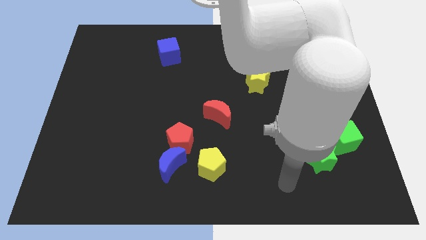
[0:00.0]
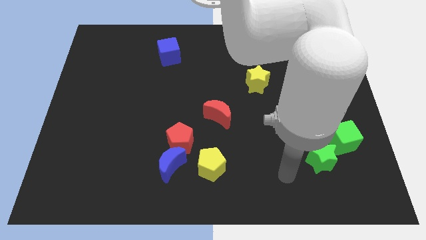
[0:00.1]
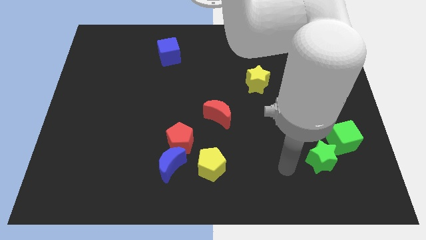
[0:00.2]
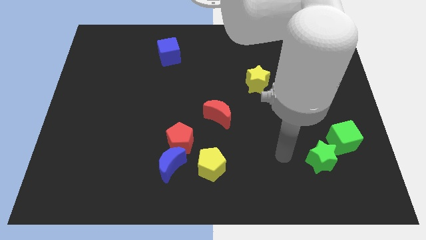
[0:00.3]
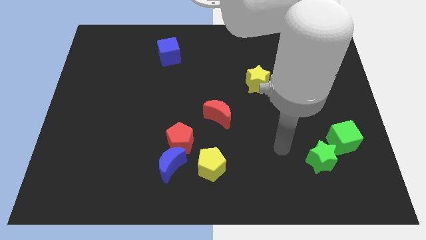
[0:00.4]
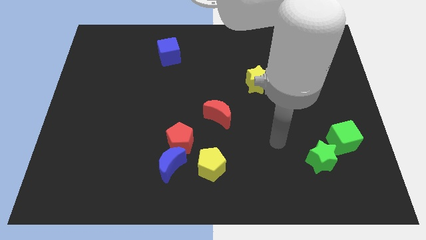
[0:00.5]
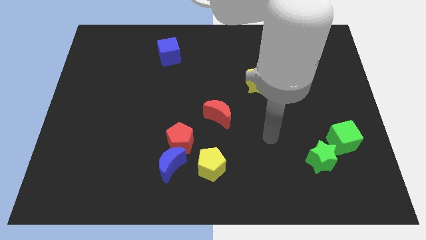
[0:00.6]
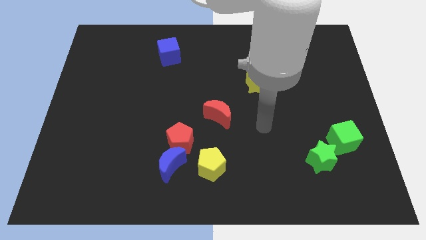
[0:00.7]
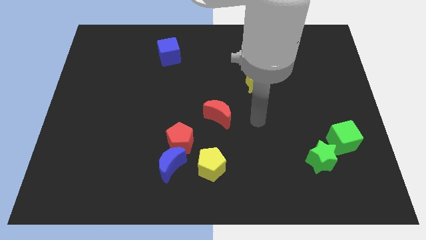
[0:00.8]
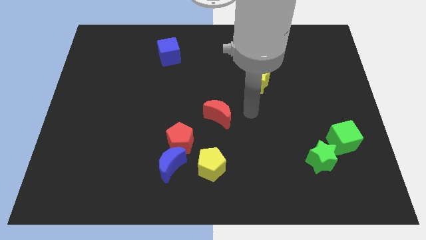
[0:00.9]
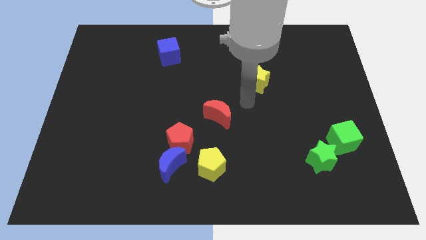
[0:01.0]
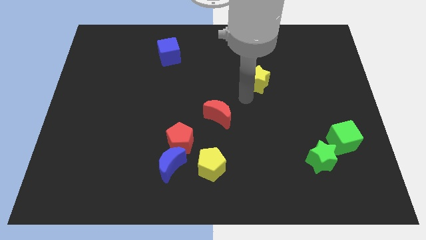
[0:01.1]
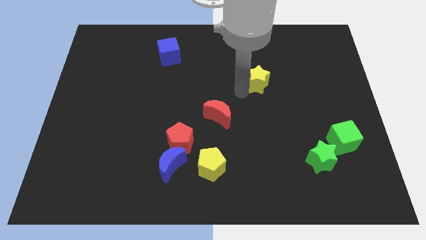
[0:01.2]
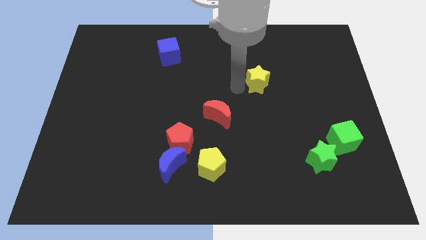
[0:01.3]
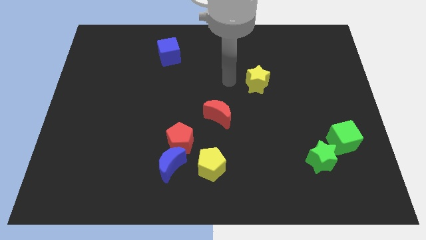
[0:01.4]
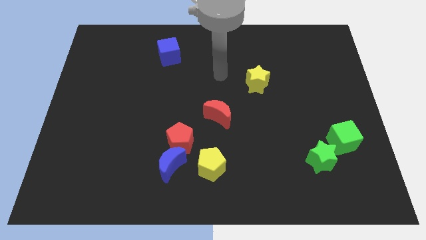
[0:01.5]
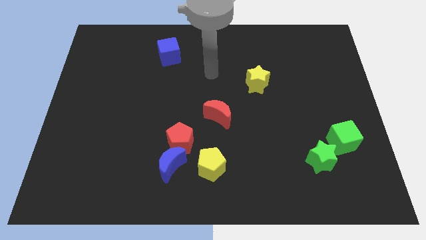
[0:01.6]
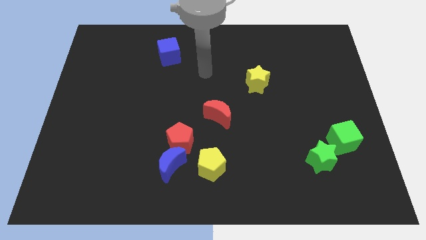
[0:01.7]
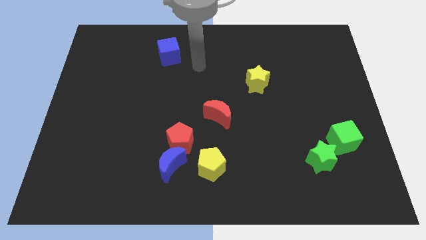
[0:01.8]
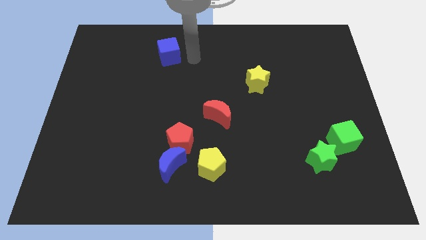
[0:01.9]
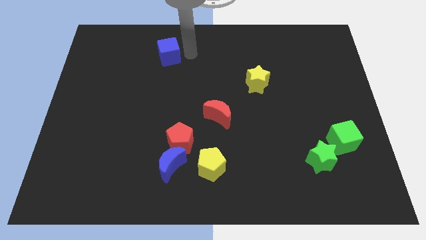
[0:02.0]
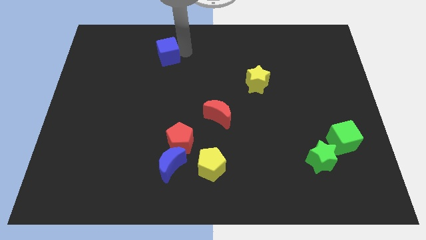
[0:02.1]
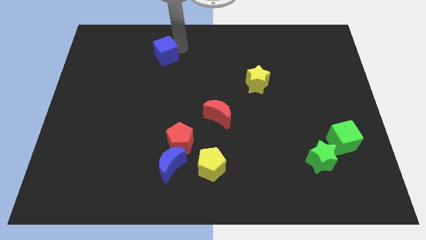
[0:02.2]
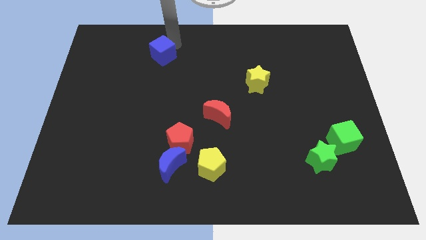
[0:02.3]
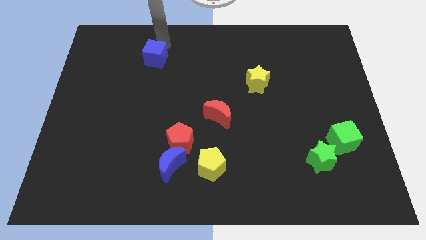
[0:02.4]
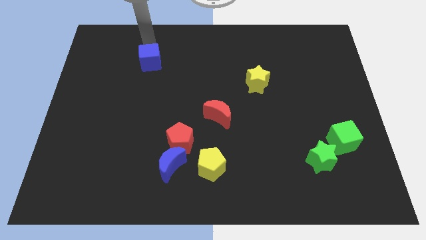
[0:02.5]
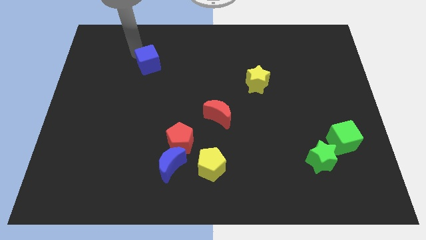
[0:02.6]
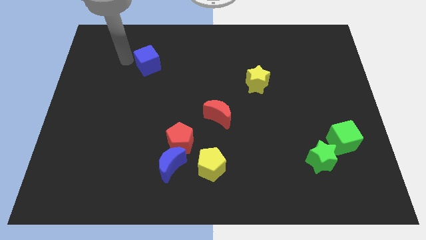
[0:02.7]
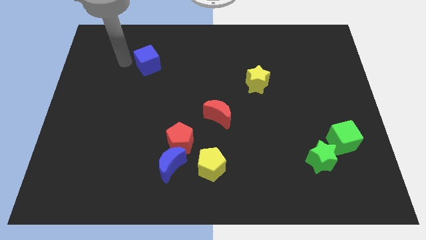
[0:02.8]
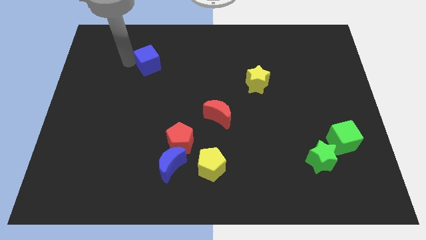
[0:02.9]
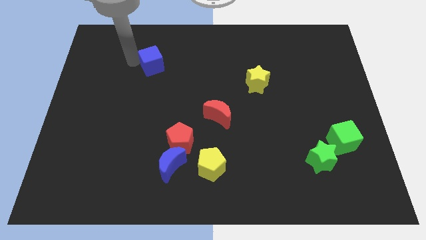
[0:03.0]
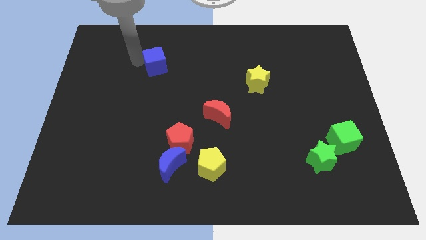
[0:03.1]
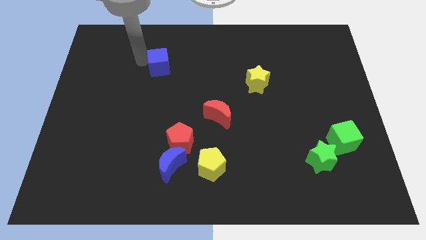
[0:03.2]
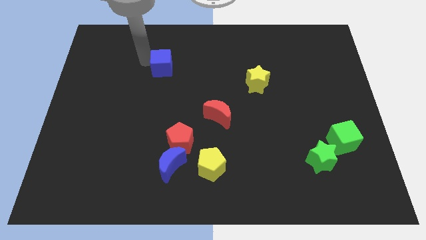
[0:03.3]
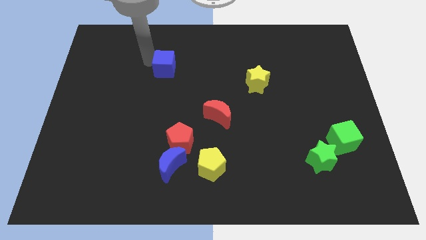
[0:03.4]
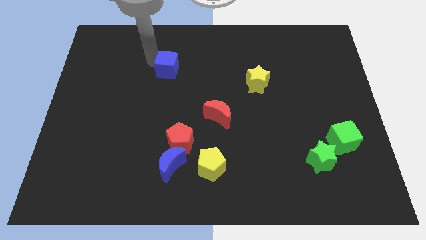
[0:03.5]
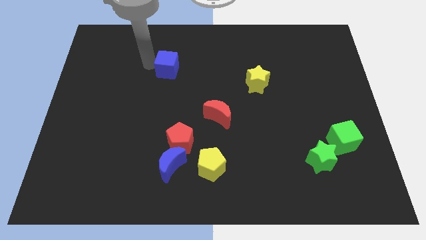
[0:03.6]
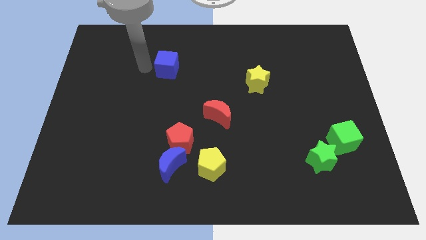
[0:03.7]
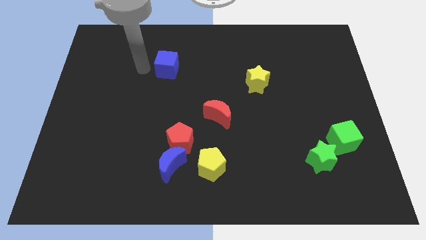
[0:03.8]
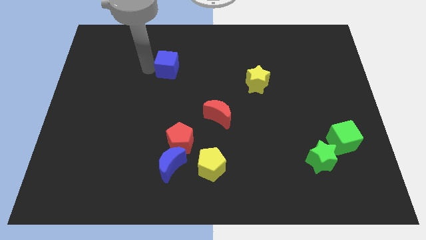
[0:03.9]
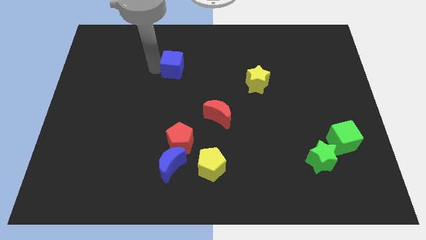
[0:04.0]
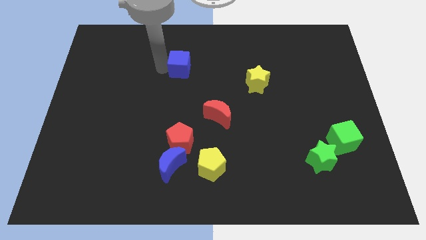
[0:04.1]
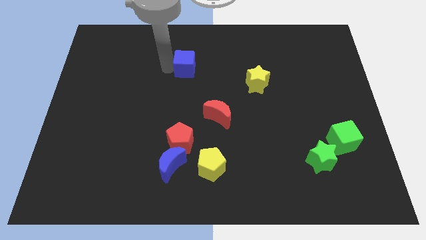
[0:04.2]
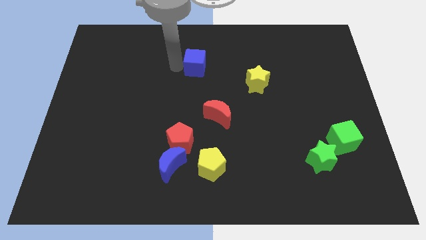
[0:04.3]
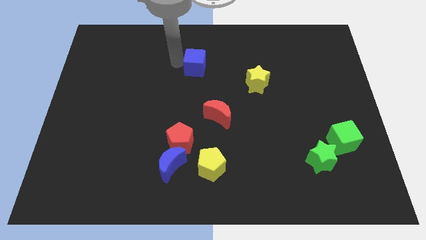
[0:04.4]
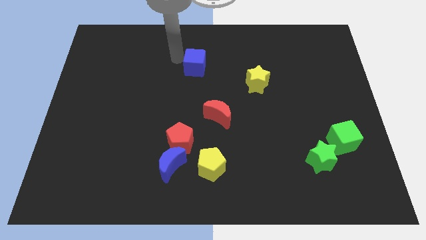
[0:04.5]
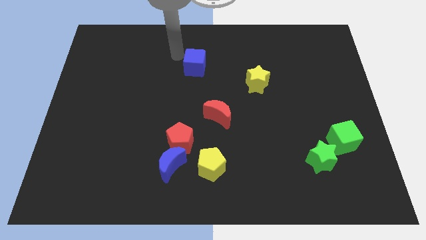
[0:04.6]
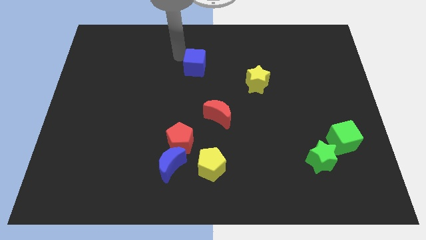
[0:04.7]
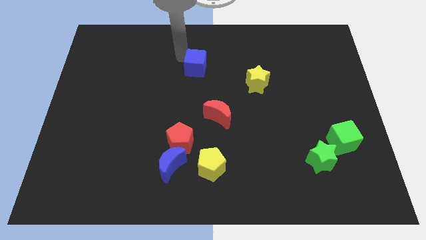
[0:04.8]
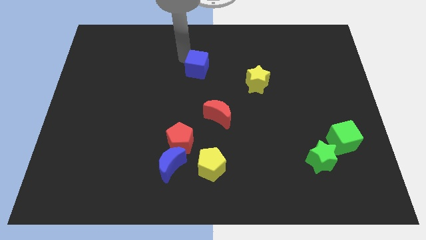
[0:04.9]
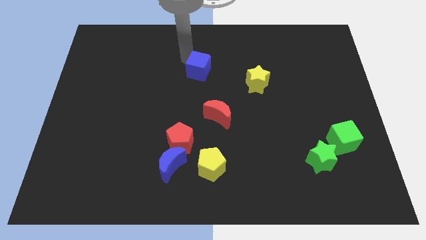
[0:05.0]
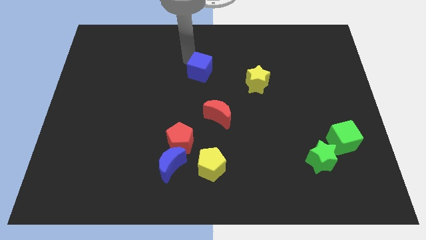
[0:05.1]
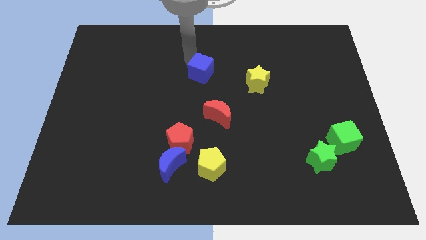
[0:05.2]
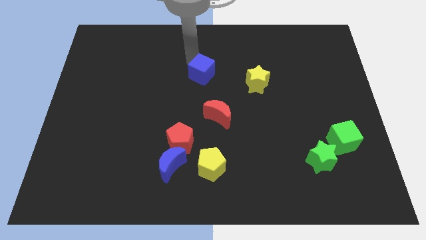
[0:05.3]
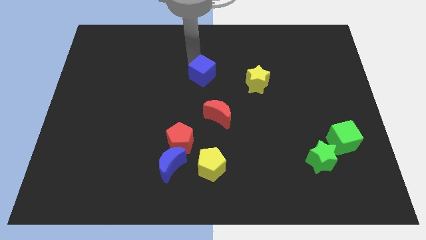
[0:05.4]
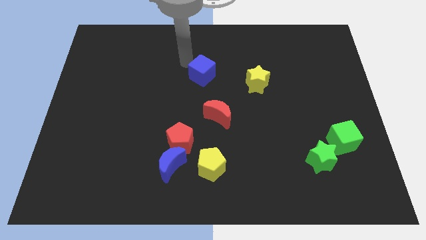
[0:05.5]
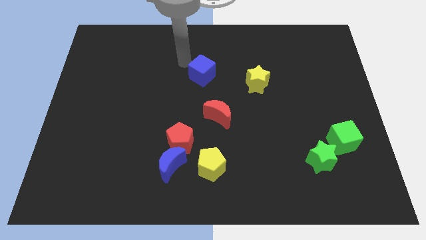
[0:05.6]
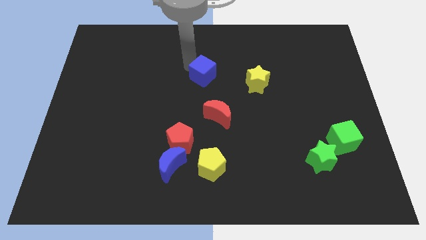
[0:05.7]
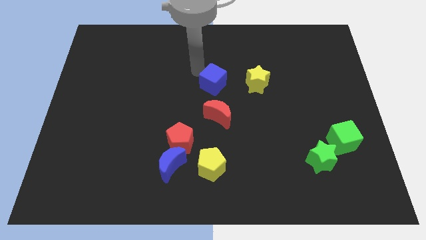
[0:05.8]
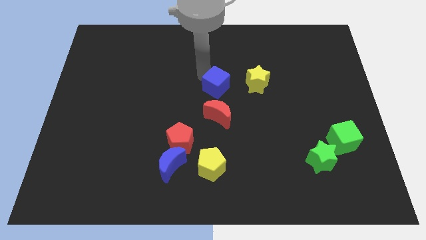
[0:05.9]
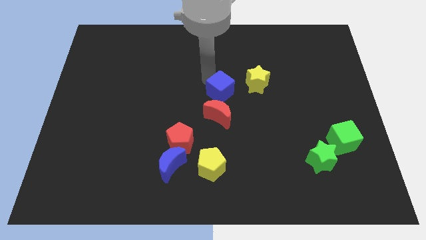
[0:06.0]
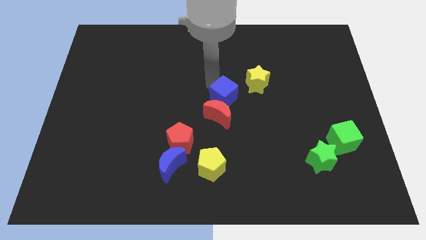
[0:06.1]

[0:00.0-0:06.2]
slide the blue cube to the top right side of the red moon

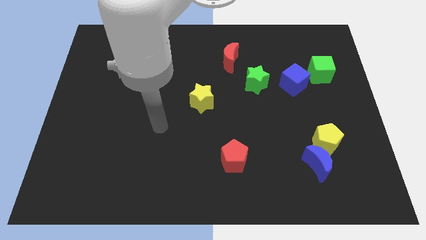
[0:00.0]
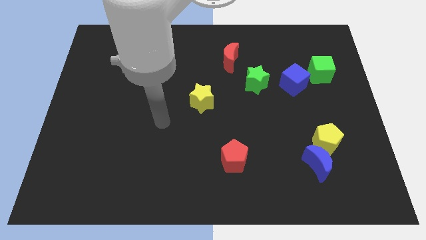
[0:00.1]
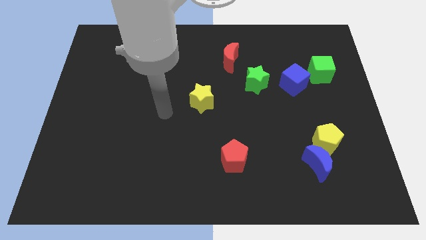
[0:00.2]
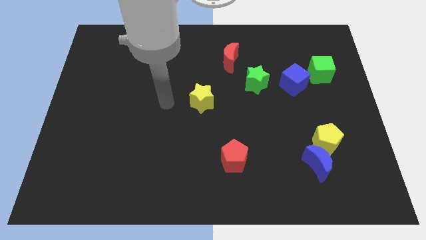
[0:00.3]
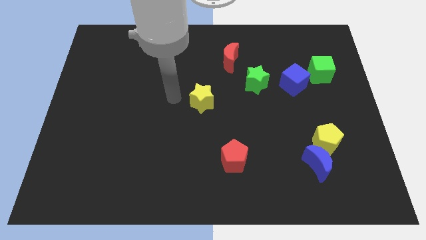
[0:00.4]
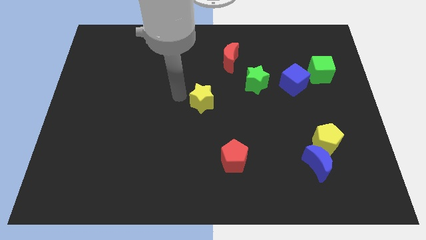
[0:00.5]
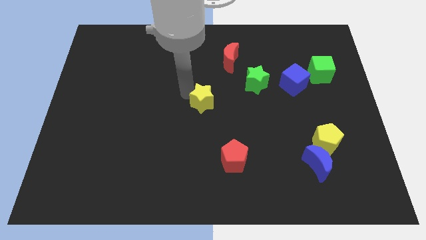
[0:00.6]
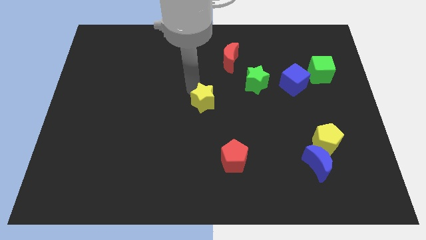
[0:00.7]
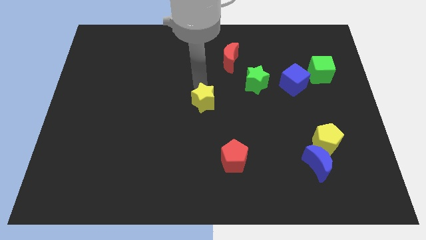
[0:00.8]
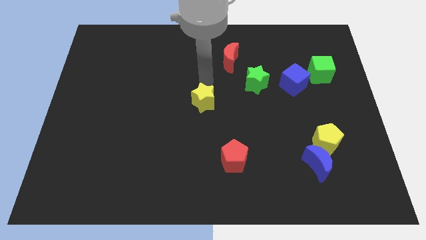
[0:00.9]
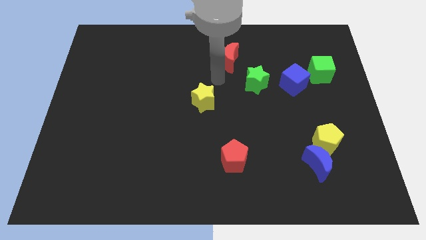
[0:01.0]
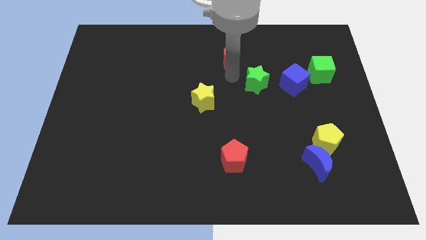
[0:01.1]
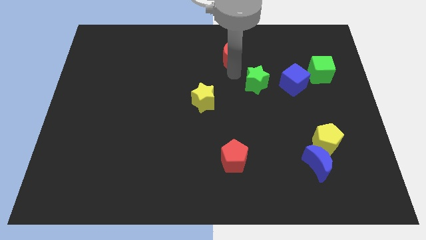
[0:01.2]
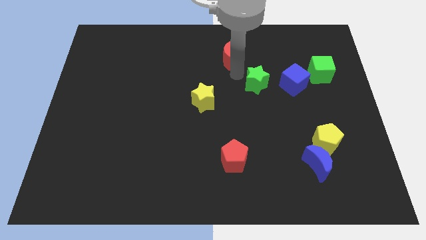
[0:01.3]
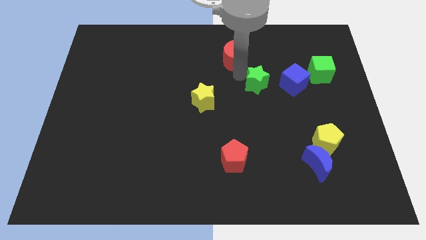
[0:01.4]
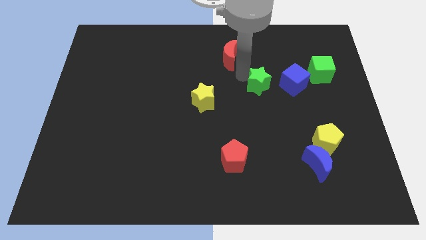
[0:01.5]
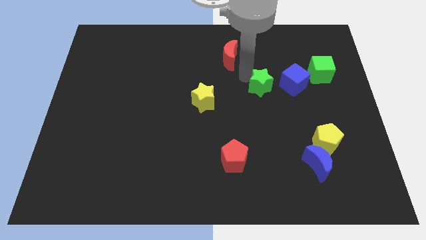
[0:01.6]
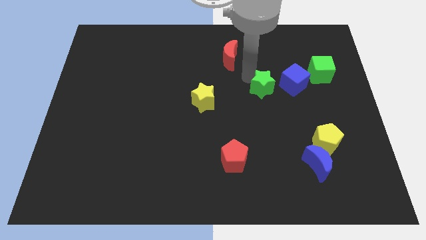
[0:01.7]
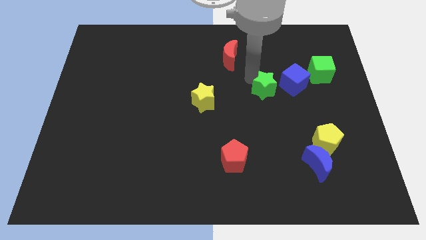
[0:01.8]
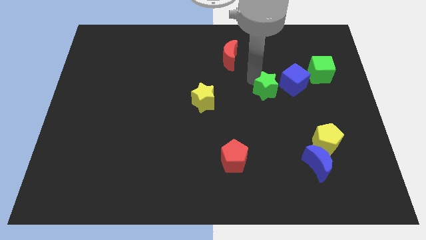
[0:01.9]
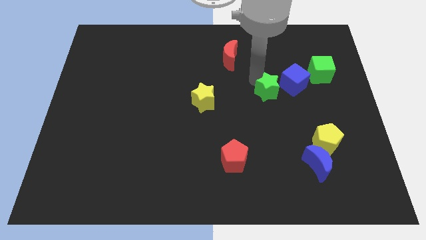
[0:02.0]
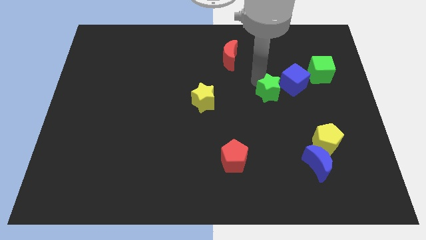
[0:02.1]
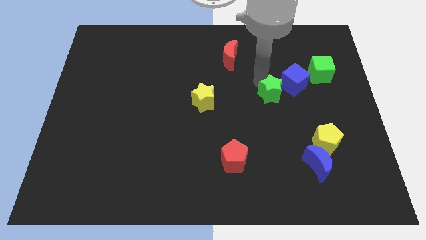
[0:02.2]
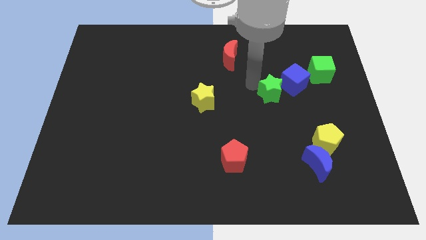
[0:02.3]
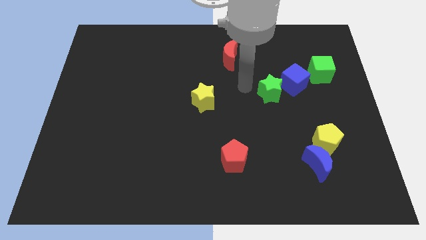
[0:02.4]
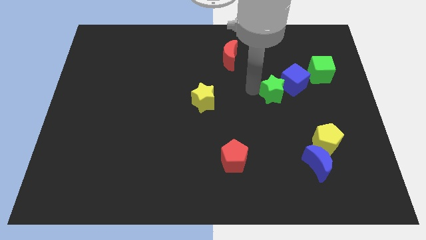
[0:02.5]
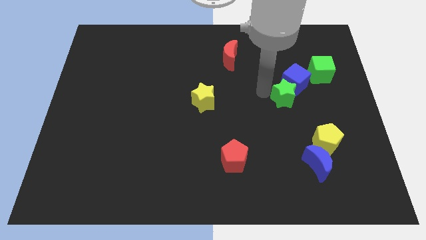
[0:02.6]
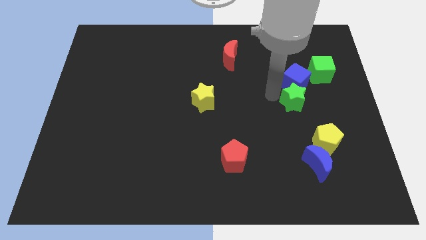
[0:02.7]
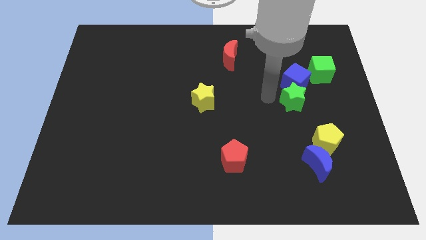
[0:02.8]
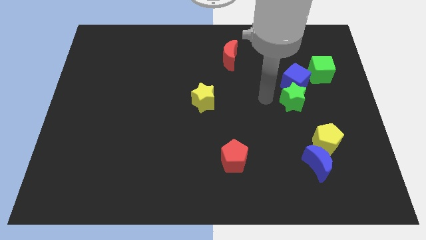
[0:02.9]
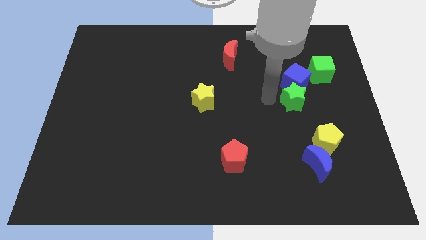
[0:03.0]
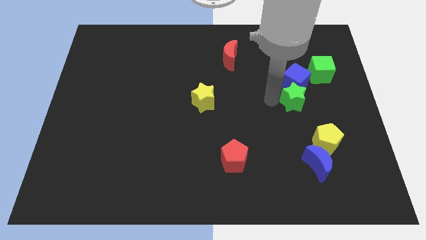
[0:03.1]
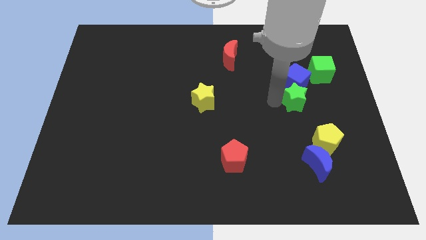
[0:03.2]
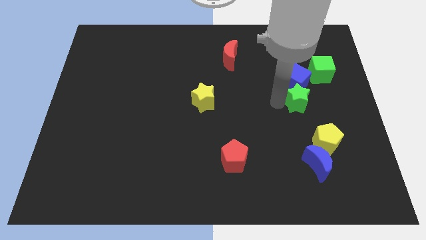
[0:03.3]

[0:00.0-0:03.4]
push the green star above the yellow pentagon
